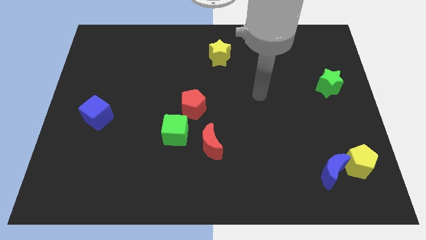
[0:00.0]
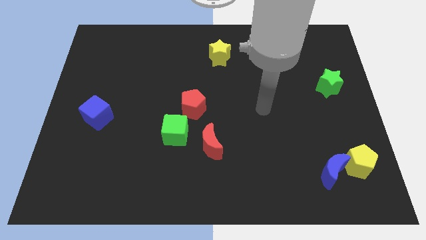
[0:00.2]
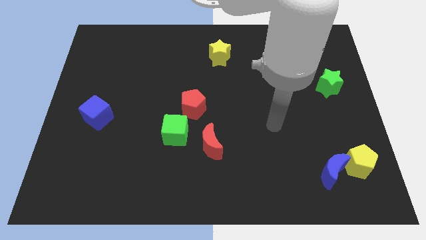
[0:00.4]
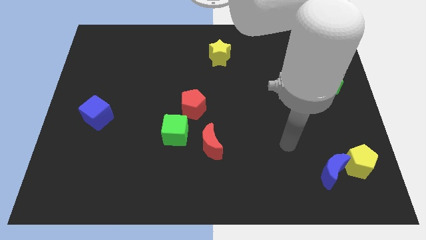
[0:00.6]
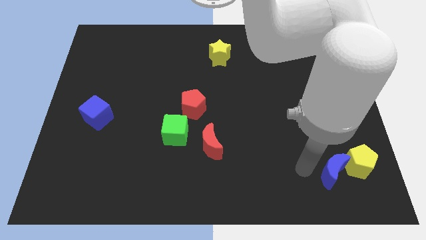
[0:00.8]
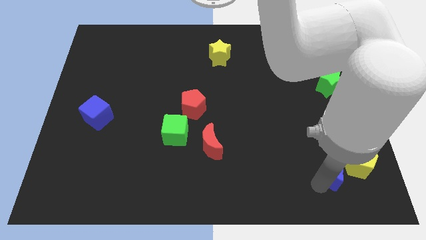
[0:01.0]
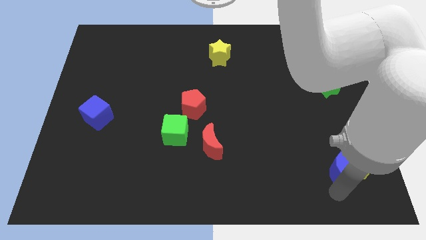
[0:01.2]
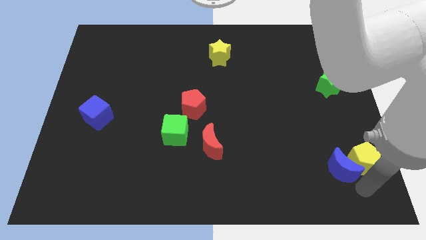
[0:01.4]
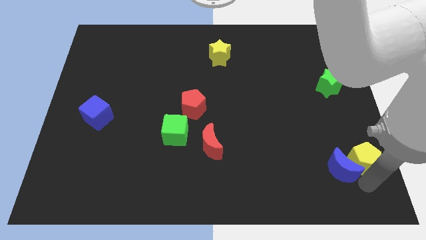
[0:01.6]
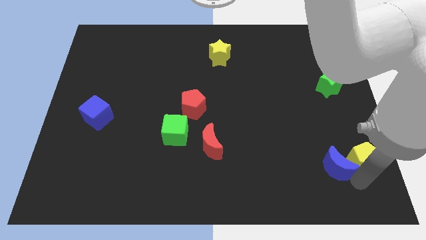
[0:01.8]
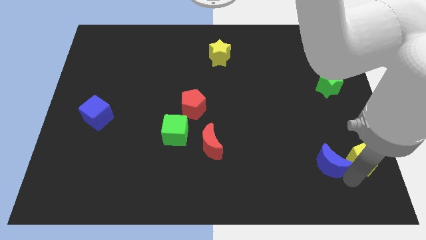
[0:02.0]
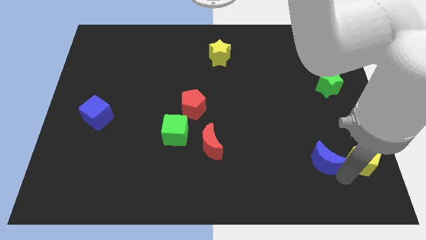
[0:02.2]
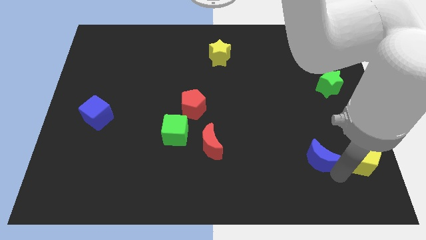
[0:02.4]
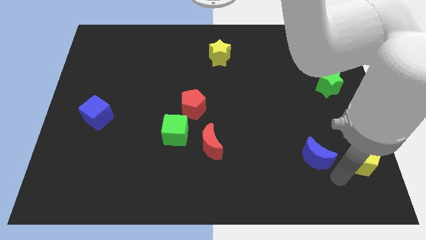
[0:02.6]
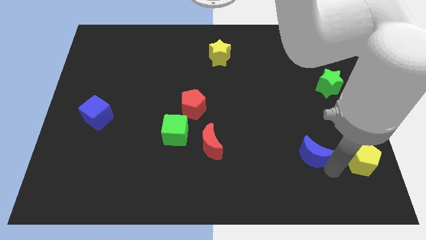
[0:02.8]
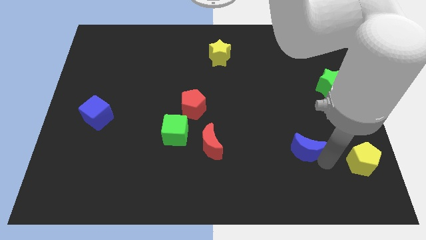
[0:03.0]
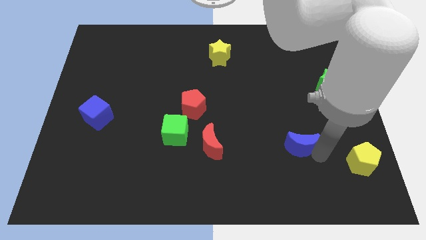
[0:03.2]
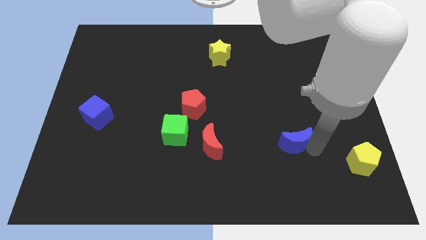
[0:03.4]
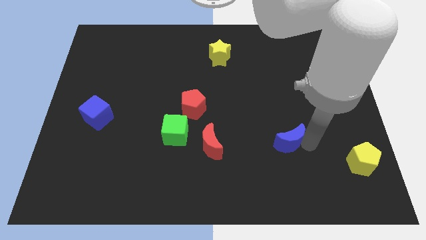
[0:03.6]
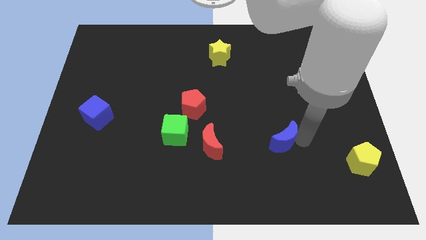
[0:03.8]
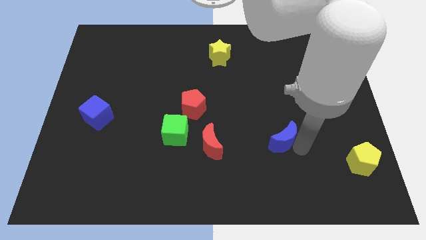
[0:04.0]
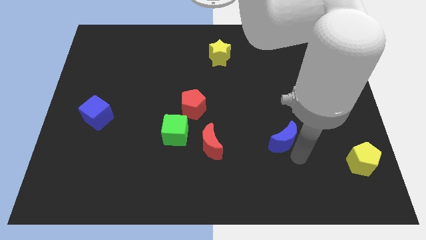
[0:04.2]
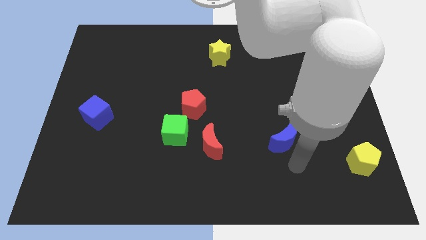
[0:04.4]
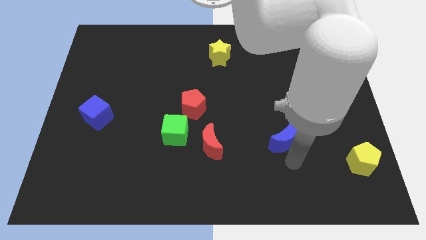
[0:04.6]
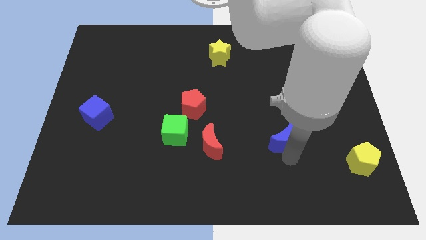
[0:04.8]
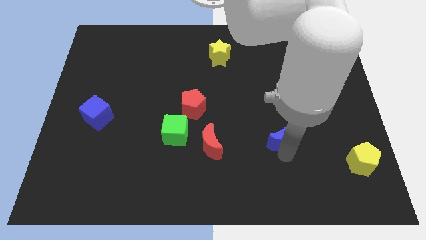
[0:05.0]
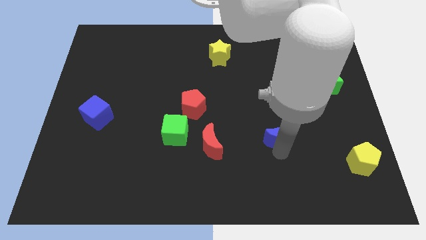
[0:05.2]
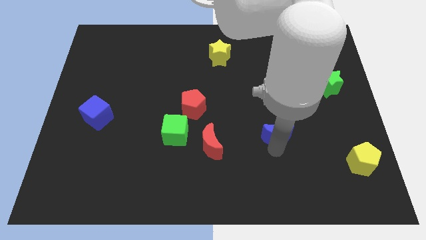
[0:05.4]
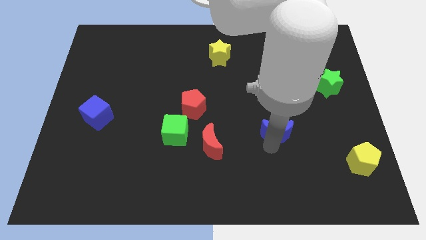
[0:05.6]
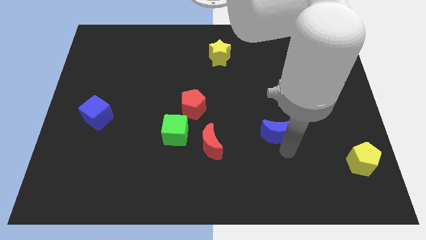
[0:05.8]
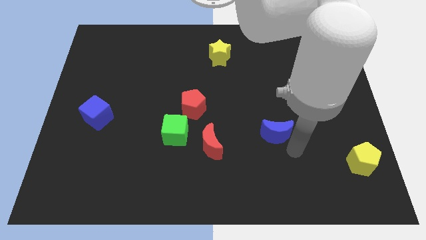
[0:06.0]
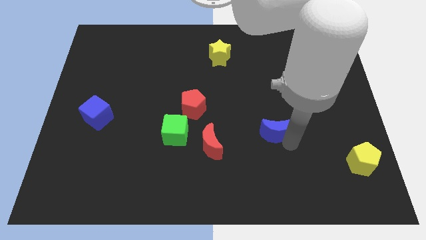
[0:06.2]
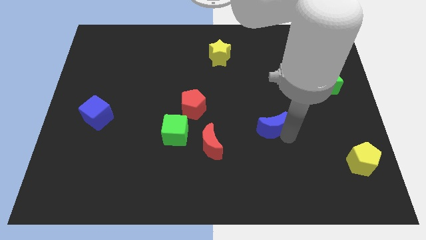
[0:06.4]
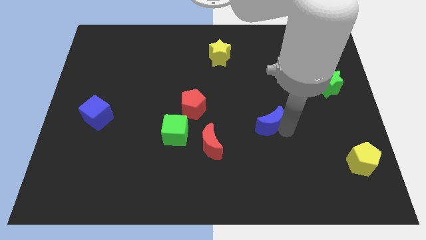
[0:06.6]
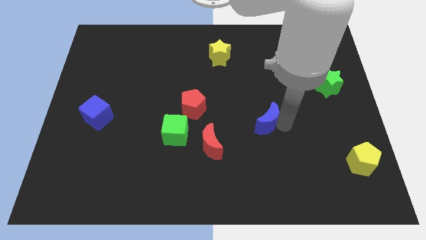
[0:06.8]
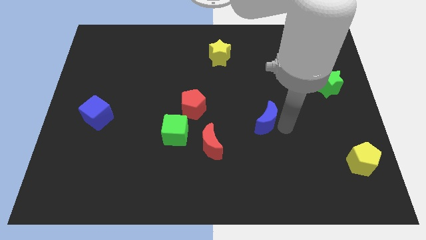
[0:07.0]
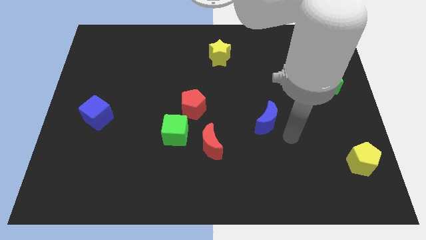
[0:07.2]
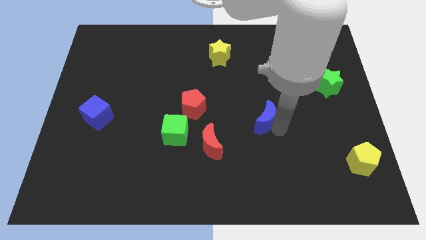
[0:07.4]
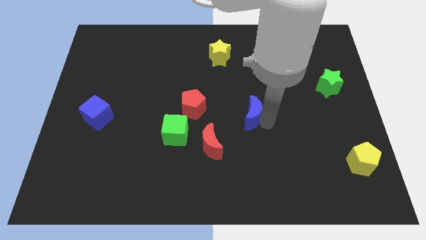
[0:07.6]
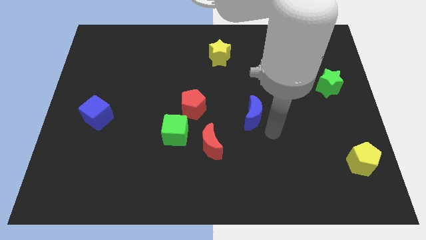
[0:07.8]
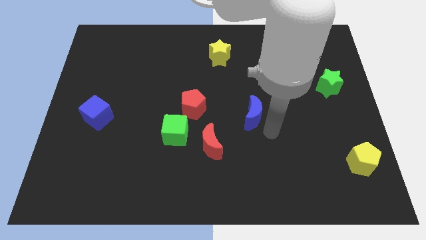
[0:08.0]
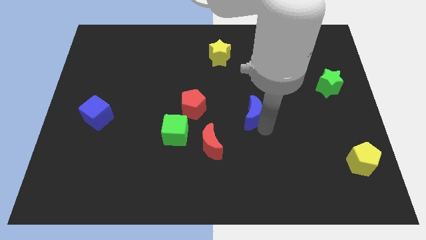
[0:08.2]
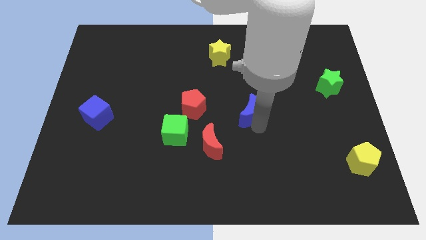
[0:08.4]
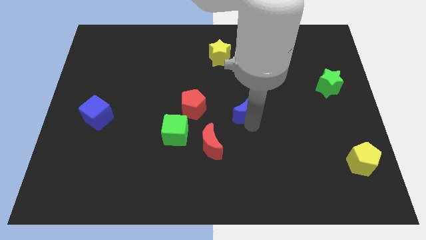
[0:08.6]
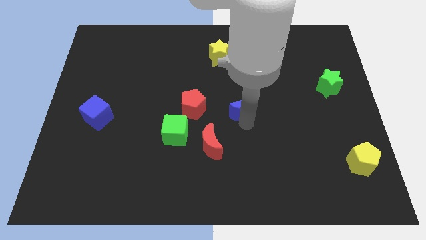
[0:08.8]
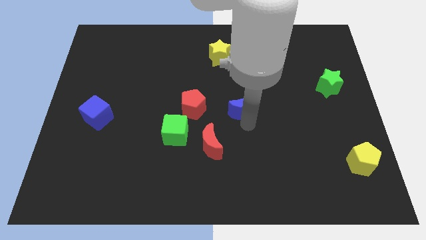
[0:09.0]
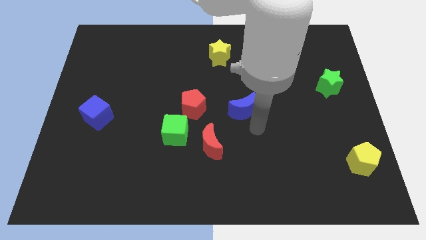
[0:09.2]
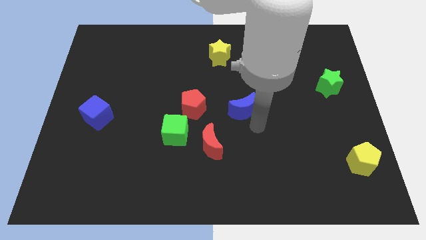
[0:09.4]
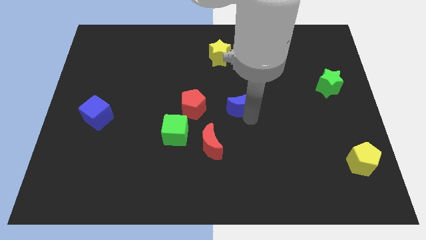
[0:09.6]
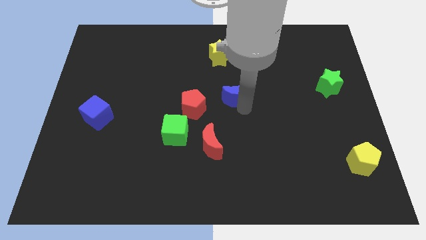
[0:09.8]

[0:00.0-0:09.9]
move the blue moon below the yellow star

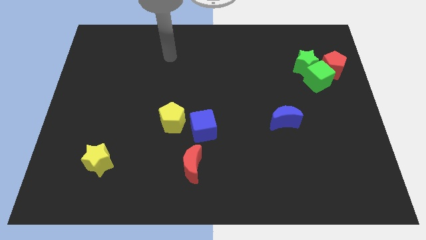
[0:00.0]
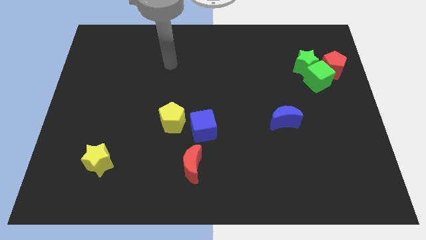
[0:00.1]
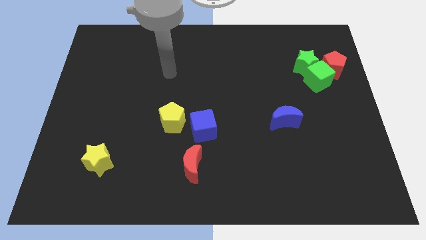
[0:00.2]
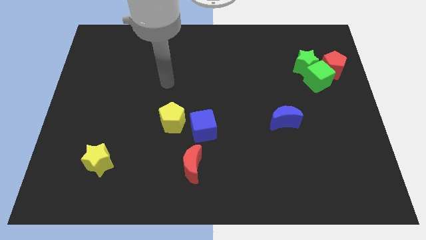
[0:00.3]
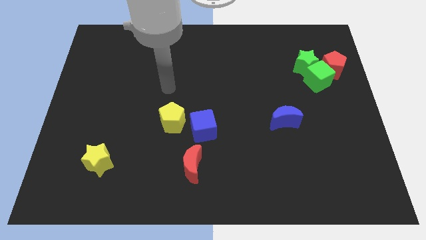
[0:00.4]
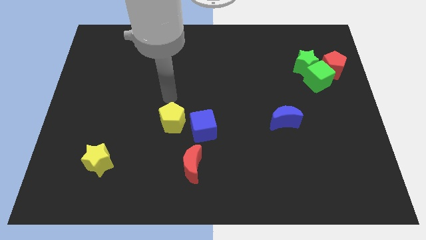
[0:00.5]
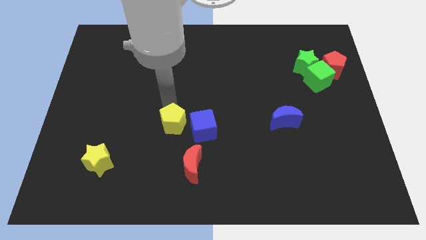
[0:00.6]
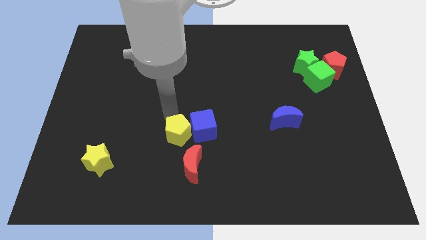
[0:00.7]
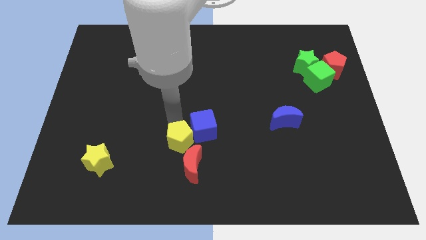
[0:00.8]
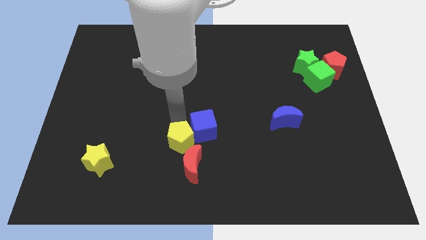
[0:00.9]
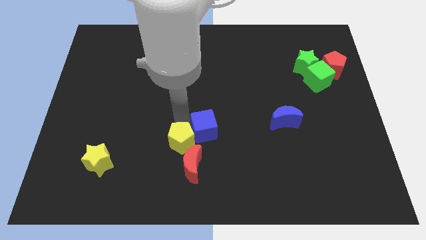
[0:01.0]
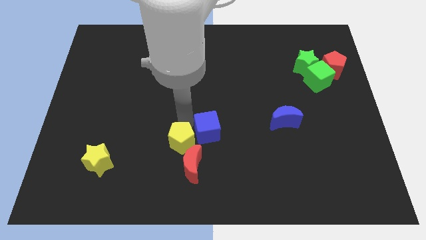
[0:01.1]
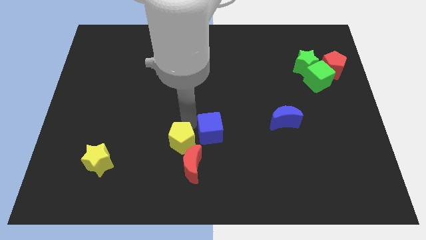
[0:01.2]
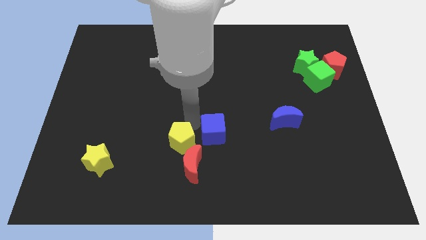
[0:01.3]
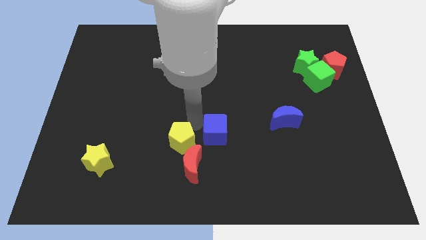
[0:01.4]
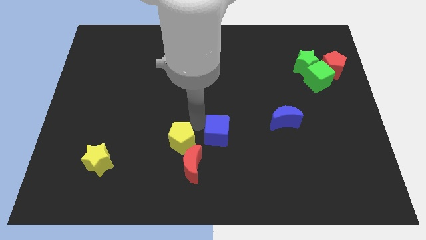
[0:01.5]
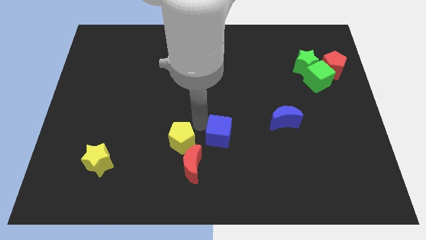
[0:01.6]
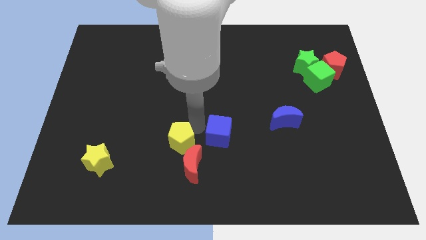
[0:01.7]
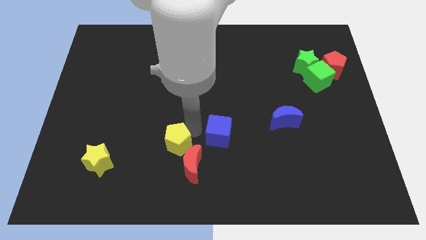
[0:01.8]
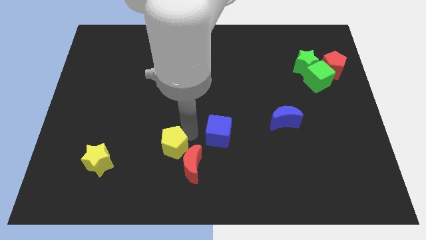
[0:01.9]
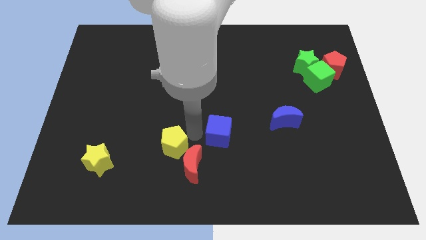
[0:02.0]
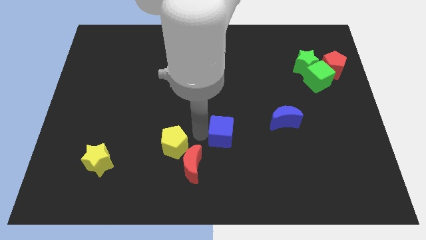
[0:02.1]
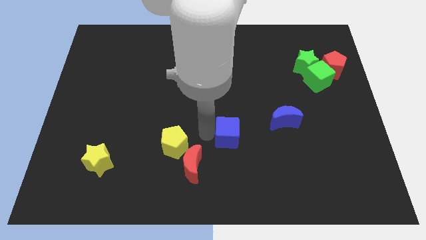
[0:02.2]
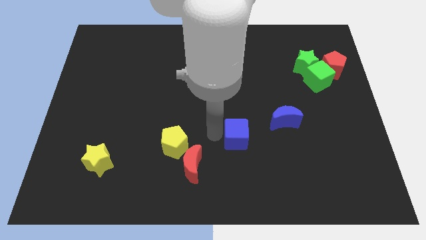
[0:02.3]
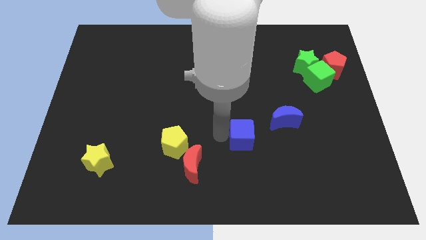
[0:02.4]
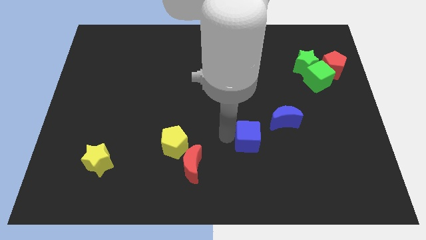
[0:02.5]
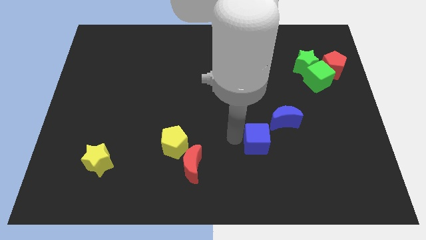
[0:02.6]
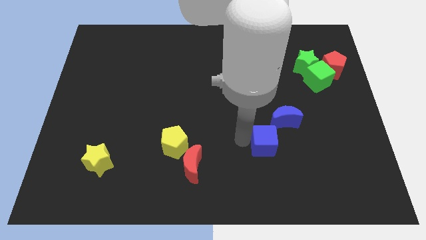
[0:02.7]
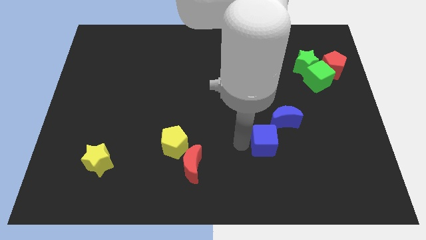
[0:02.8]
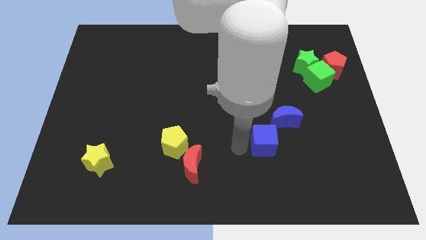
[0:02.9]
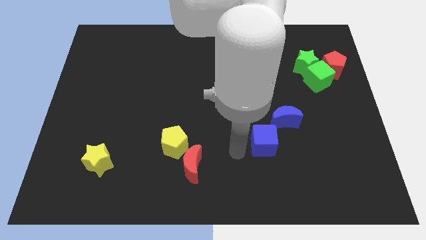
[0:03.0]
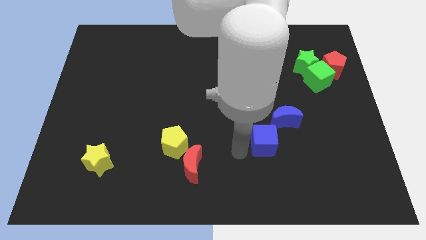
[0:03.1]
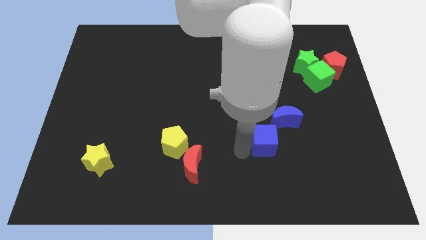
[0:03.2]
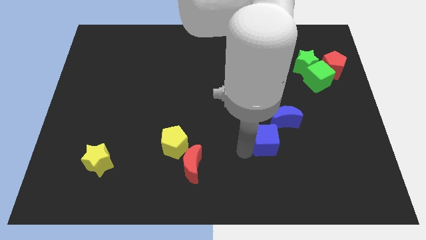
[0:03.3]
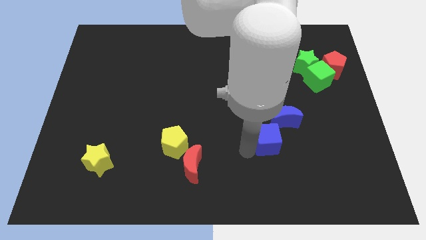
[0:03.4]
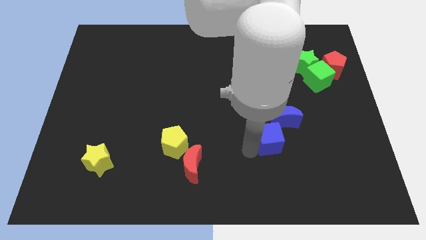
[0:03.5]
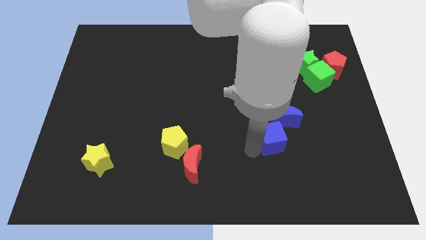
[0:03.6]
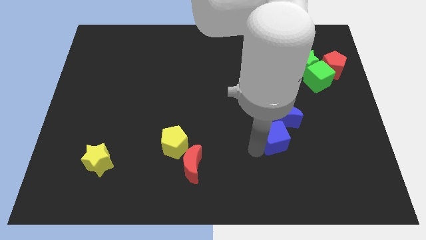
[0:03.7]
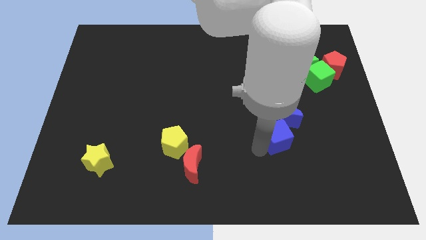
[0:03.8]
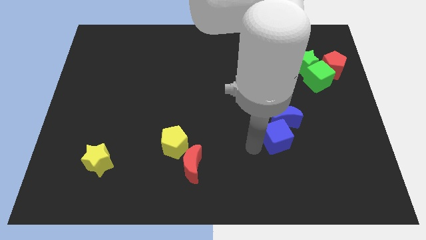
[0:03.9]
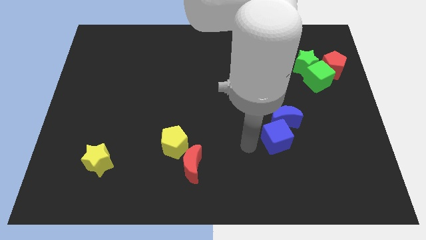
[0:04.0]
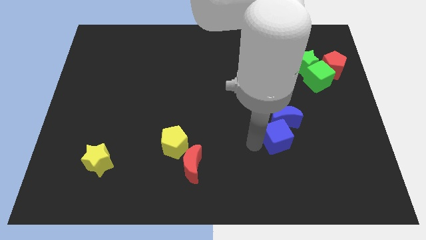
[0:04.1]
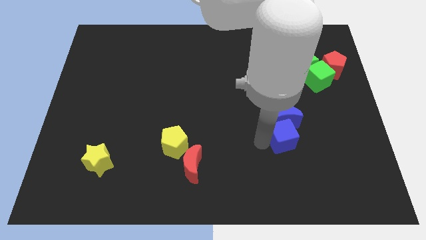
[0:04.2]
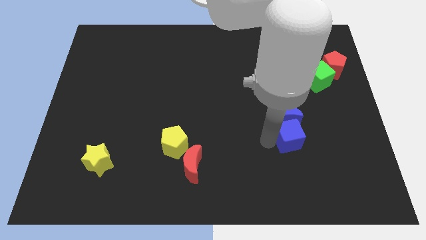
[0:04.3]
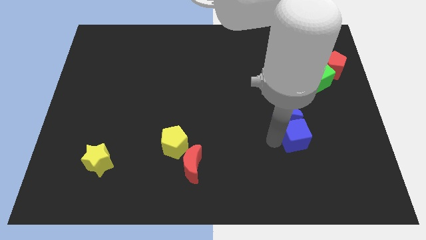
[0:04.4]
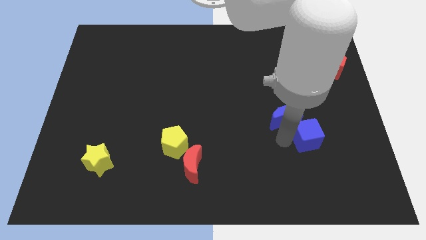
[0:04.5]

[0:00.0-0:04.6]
move the blue cube just right of the blue moon
